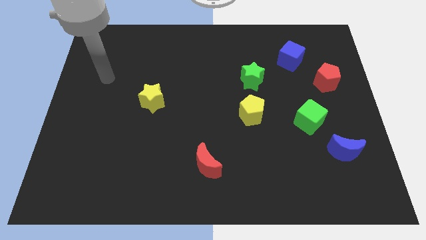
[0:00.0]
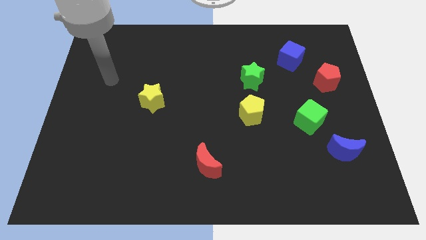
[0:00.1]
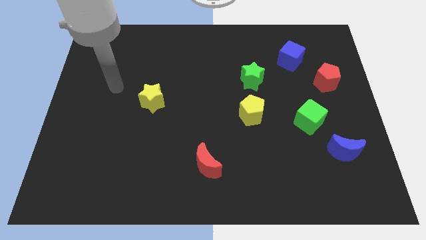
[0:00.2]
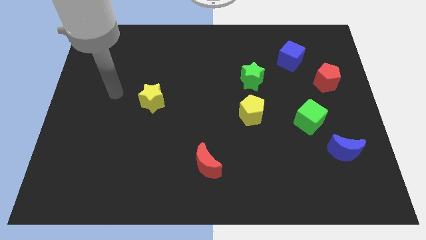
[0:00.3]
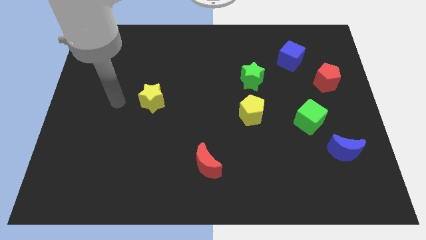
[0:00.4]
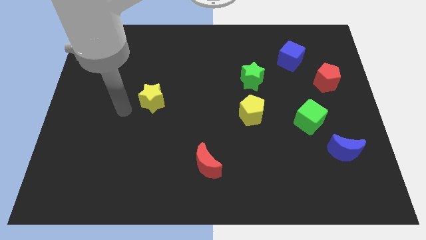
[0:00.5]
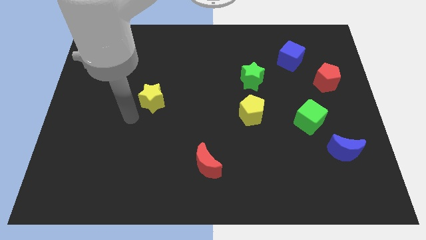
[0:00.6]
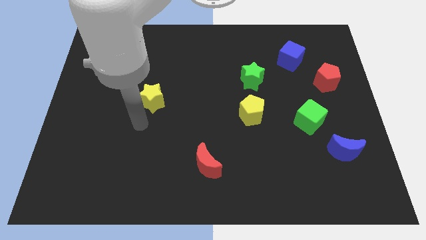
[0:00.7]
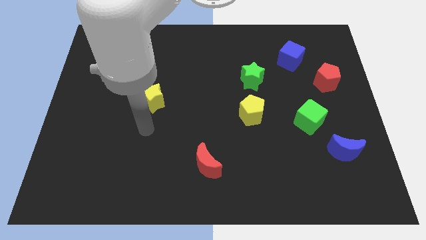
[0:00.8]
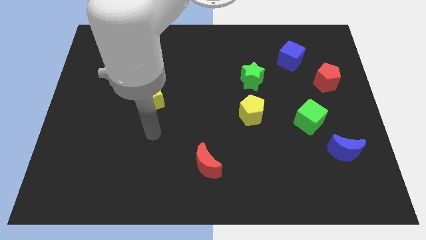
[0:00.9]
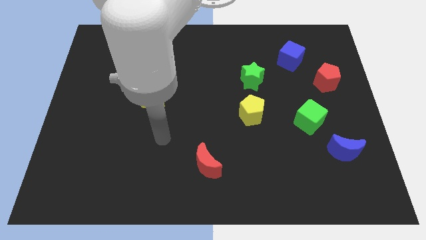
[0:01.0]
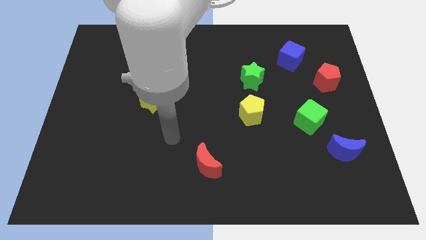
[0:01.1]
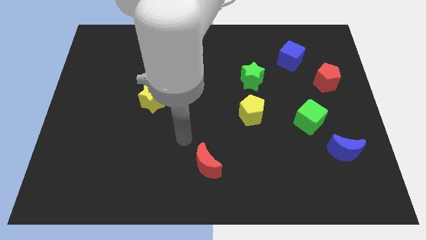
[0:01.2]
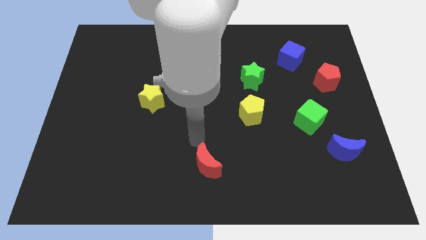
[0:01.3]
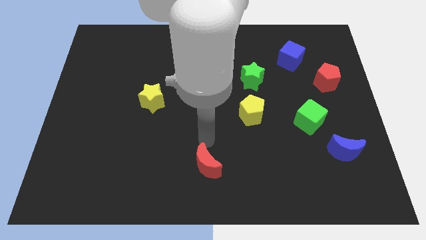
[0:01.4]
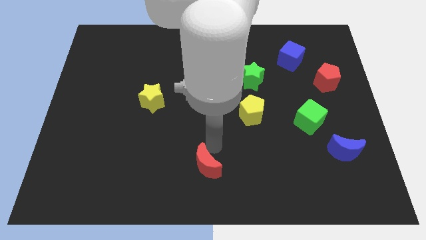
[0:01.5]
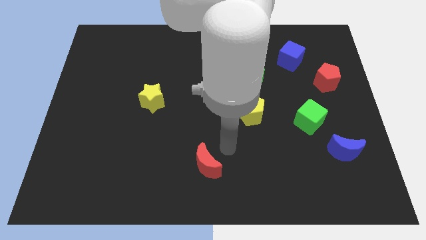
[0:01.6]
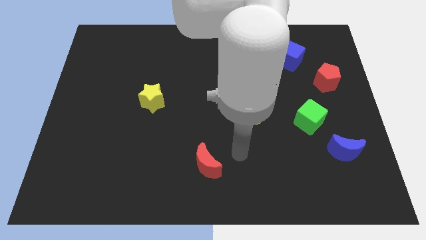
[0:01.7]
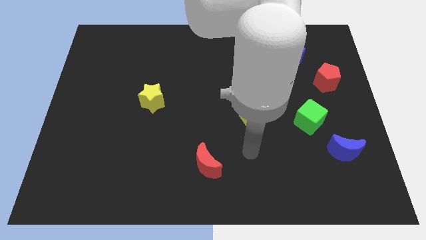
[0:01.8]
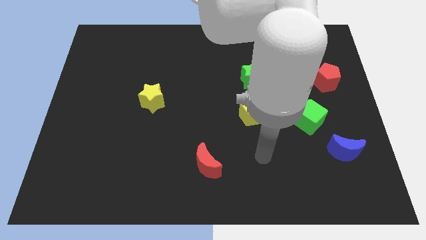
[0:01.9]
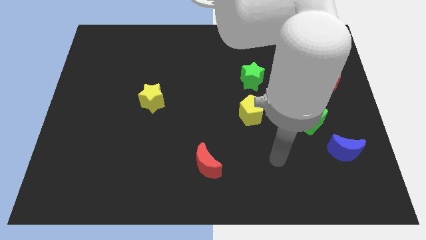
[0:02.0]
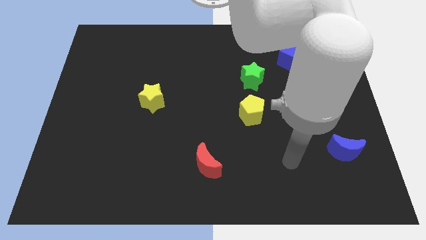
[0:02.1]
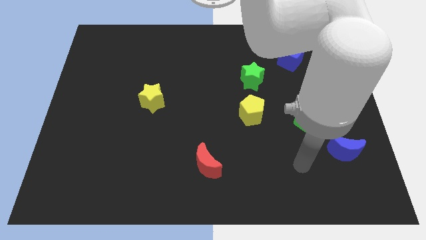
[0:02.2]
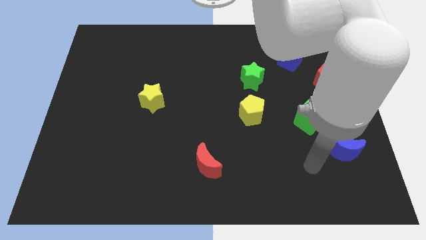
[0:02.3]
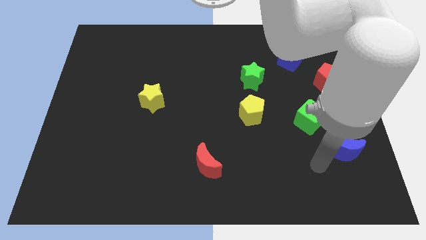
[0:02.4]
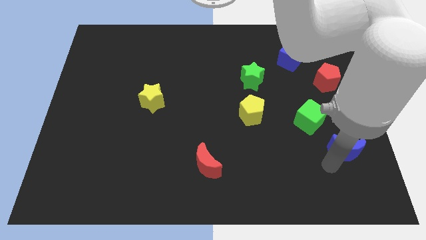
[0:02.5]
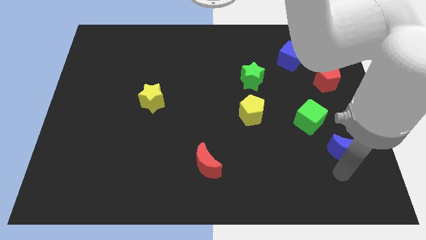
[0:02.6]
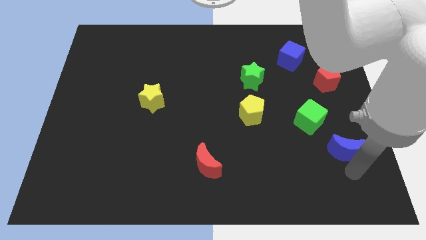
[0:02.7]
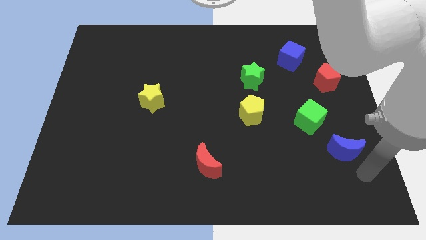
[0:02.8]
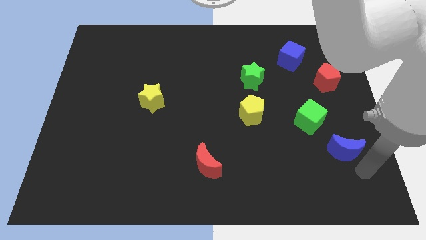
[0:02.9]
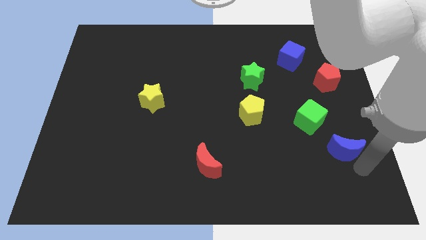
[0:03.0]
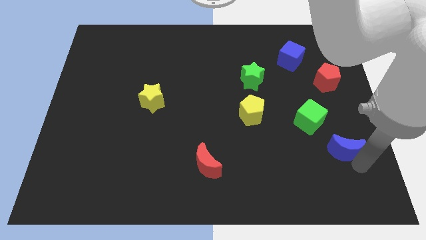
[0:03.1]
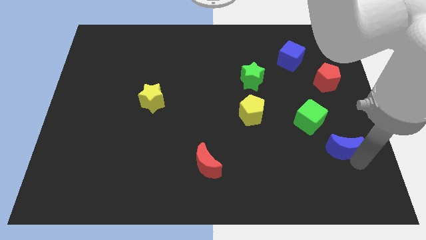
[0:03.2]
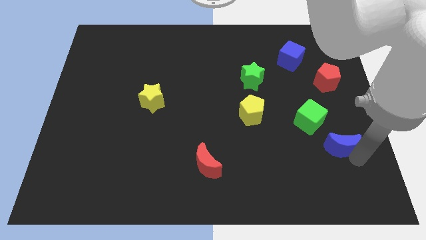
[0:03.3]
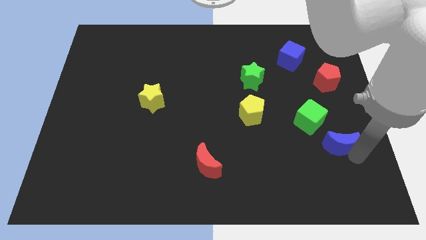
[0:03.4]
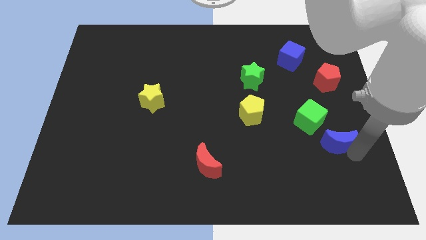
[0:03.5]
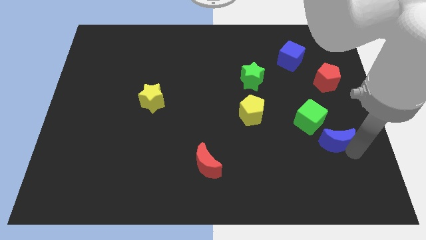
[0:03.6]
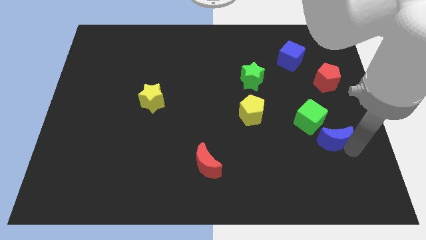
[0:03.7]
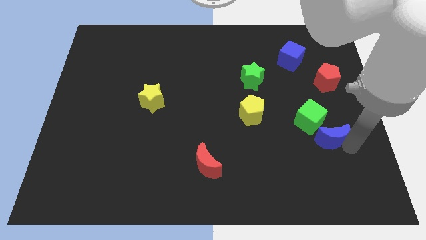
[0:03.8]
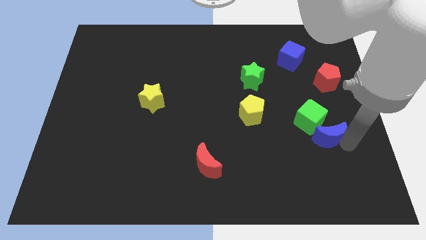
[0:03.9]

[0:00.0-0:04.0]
slide the blue moon to the green cube

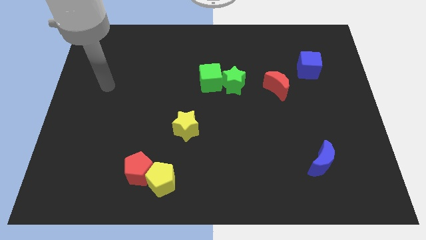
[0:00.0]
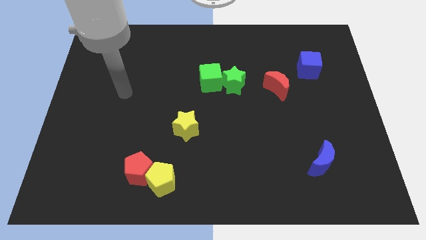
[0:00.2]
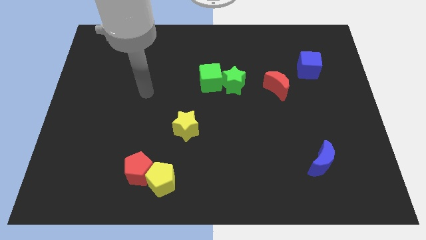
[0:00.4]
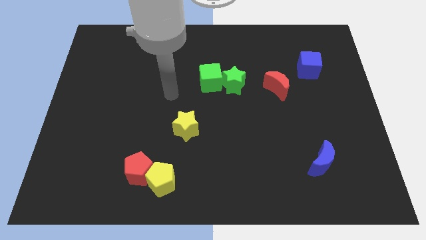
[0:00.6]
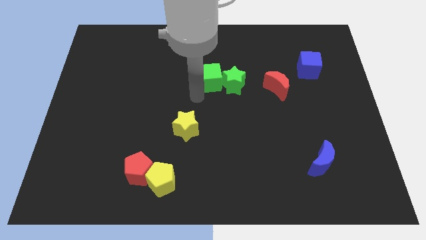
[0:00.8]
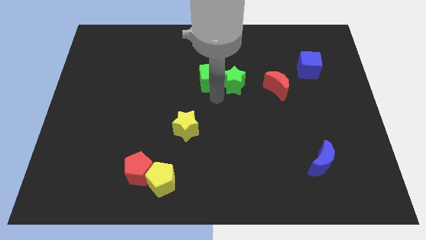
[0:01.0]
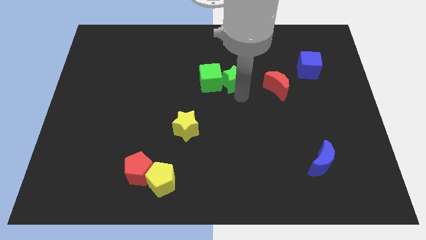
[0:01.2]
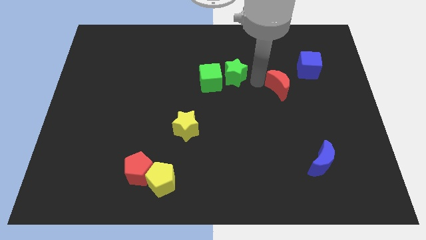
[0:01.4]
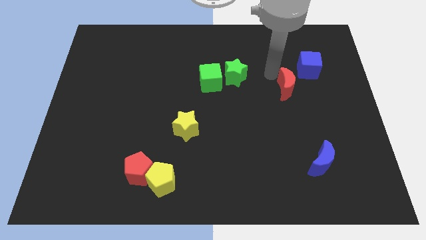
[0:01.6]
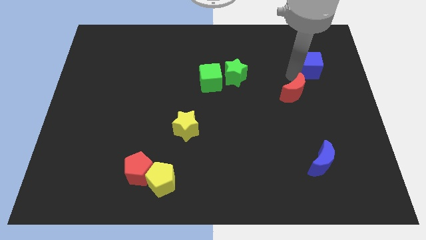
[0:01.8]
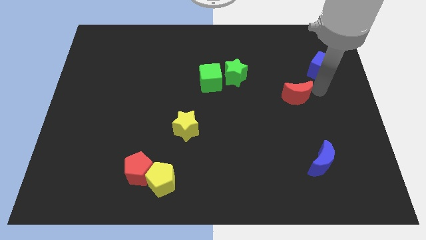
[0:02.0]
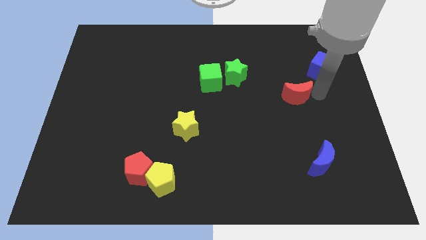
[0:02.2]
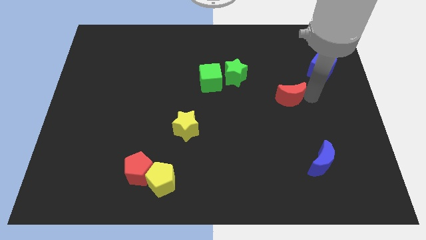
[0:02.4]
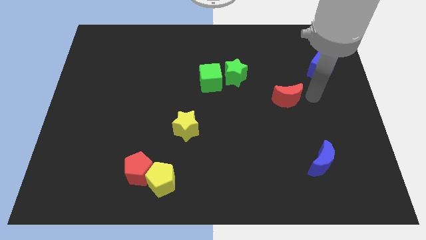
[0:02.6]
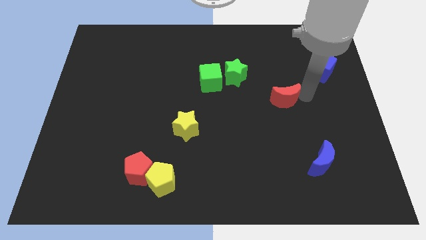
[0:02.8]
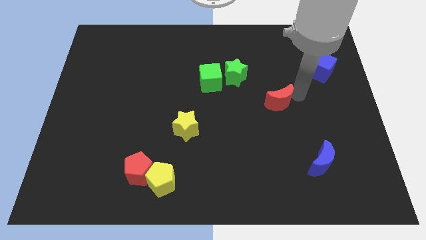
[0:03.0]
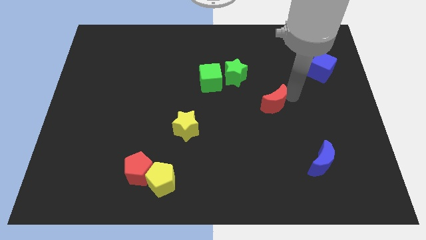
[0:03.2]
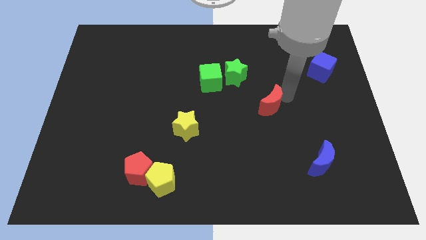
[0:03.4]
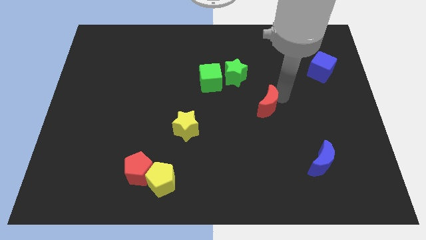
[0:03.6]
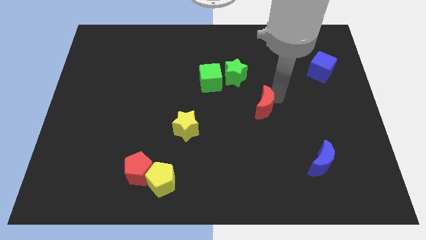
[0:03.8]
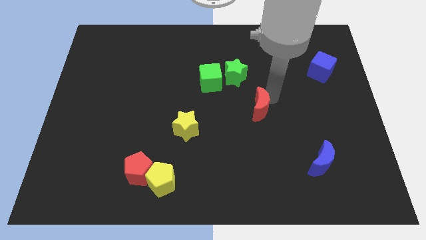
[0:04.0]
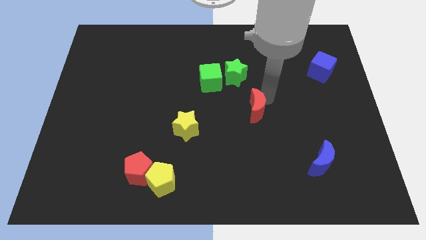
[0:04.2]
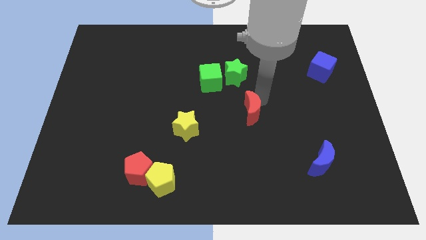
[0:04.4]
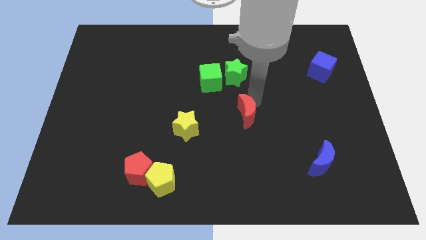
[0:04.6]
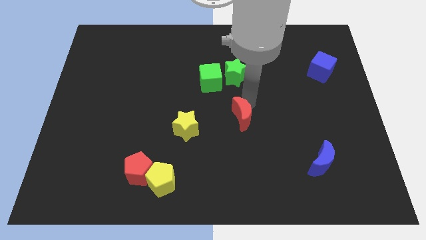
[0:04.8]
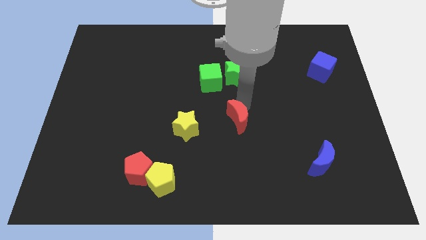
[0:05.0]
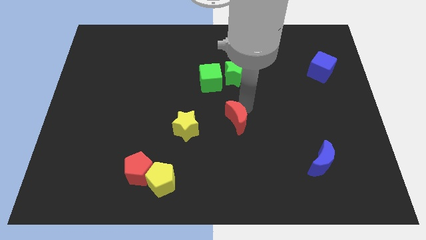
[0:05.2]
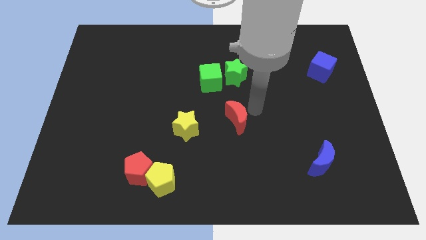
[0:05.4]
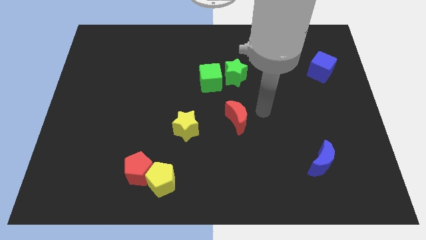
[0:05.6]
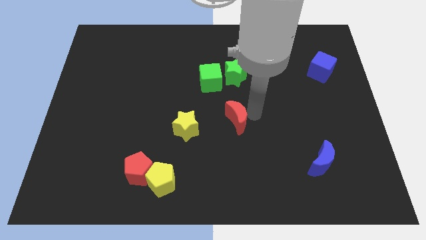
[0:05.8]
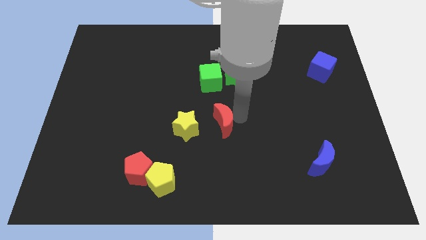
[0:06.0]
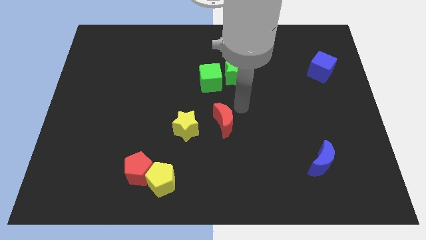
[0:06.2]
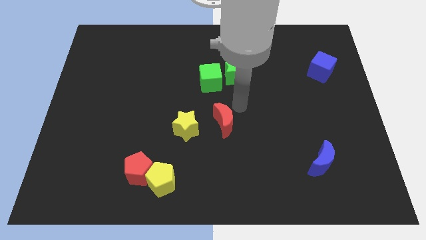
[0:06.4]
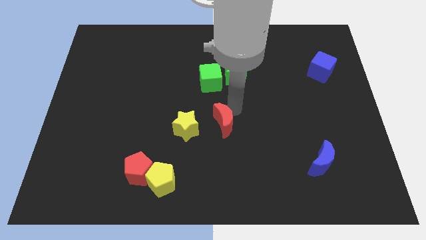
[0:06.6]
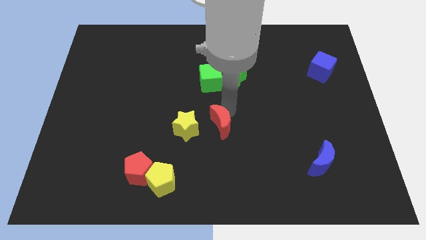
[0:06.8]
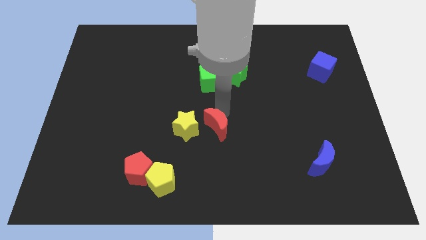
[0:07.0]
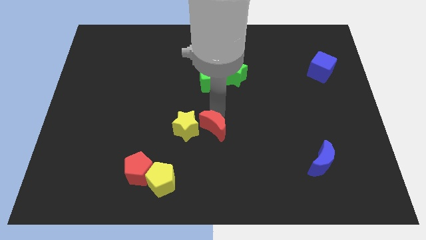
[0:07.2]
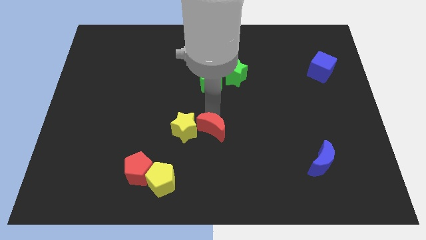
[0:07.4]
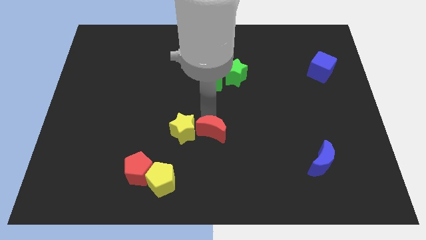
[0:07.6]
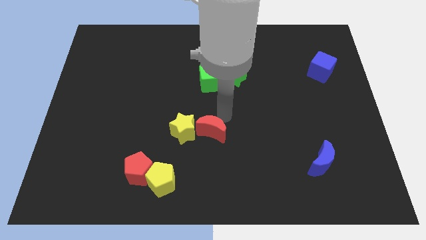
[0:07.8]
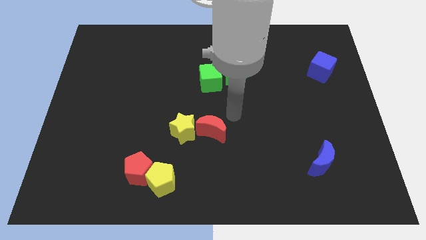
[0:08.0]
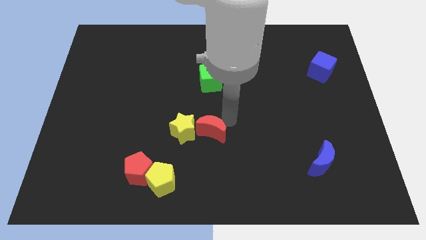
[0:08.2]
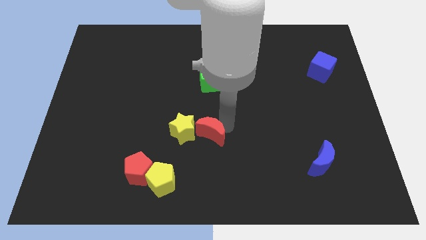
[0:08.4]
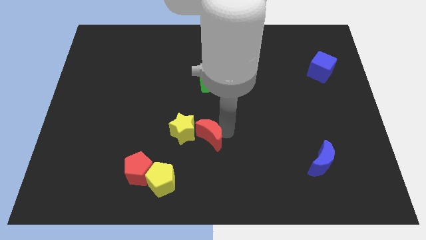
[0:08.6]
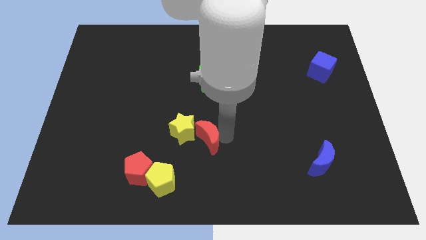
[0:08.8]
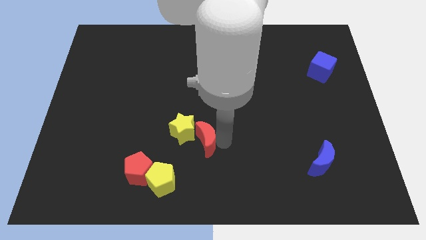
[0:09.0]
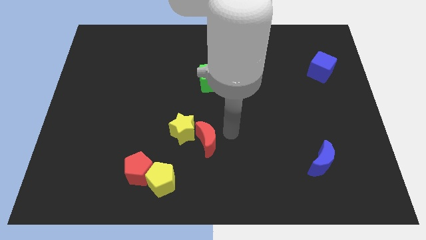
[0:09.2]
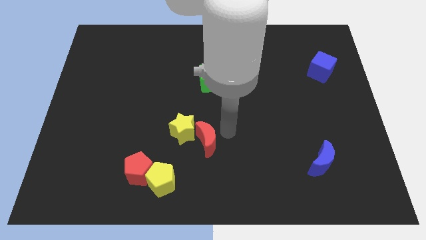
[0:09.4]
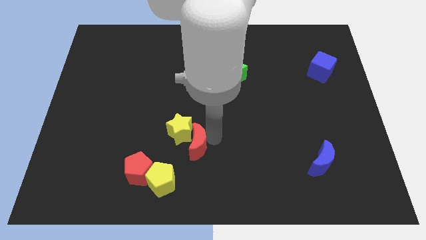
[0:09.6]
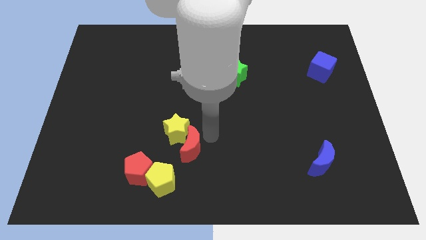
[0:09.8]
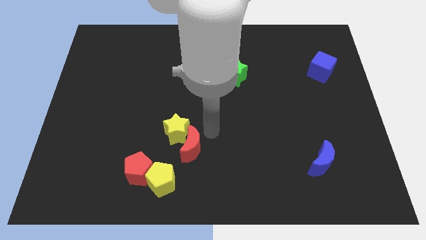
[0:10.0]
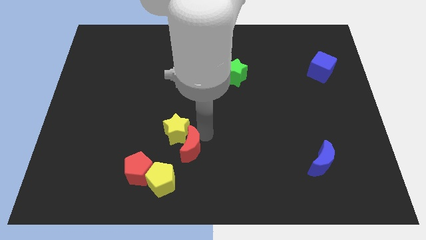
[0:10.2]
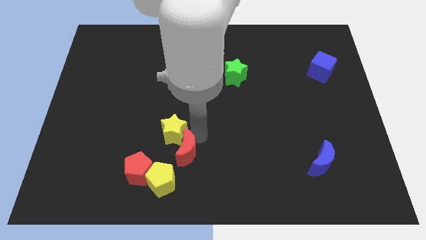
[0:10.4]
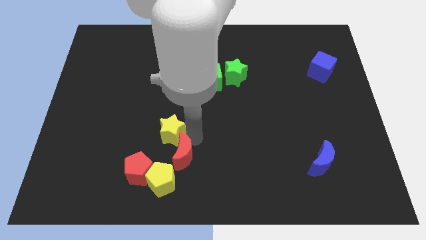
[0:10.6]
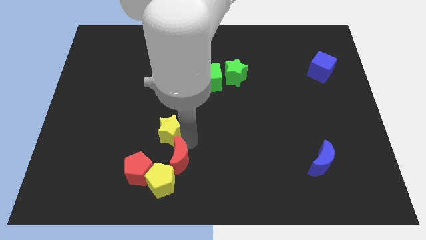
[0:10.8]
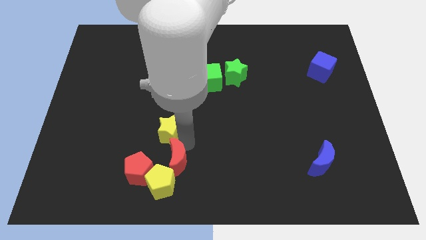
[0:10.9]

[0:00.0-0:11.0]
push the red moon close to the yellow pentagon
